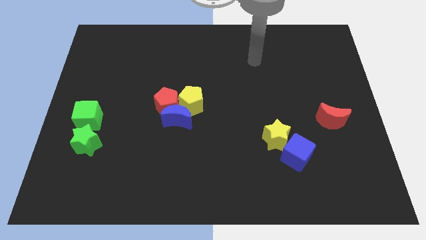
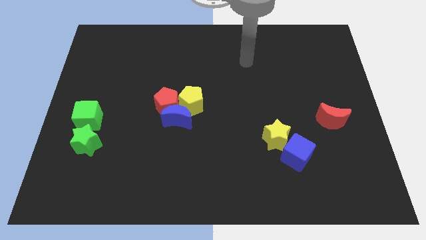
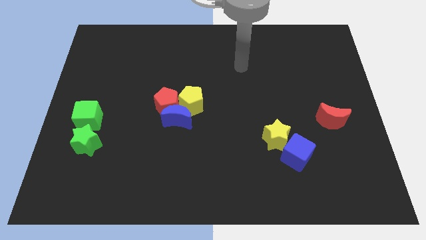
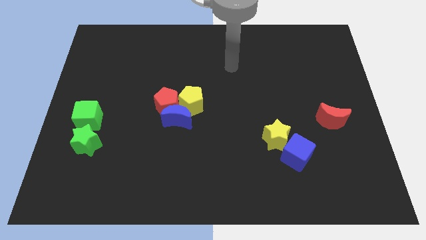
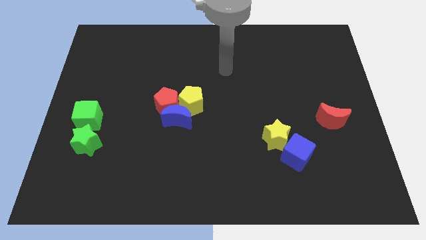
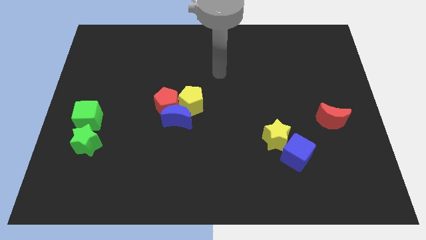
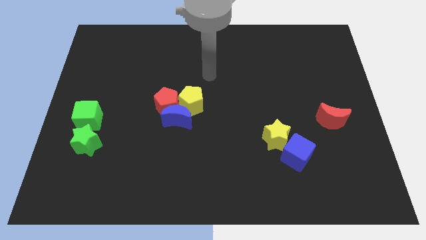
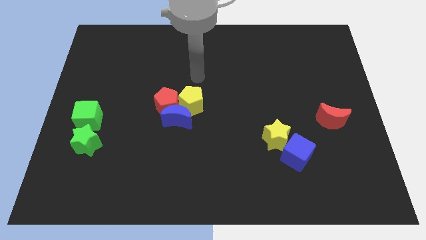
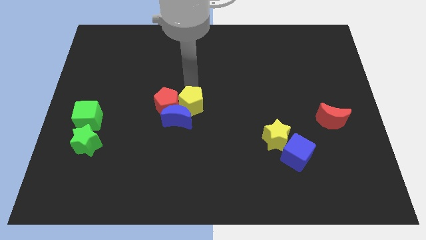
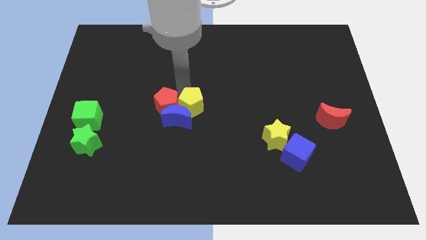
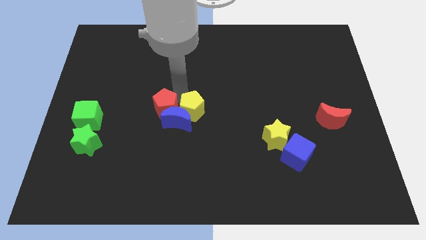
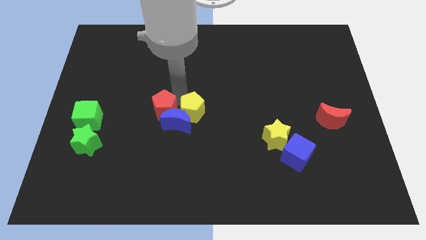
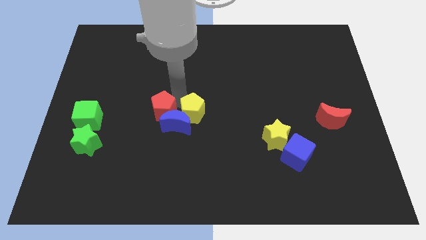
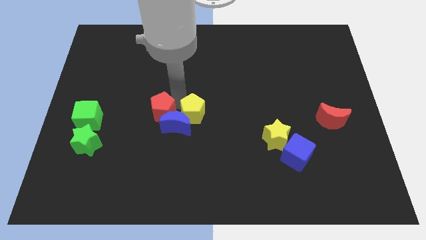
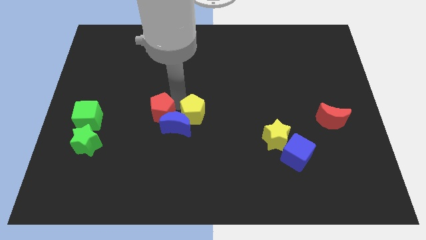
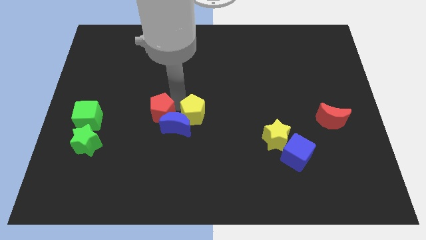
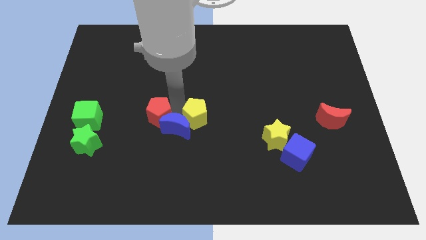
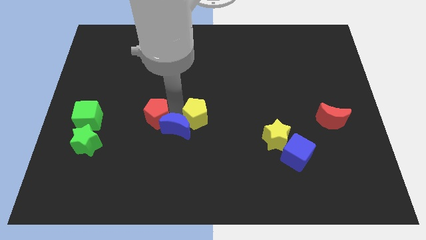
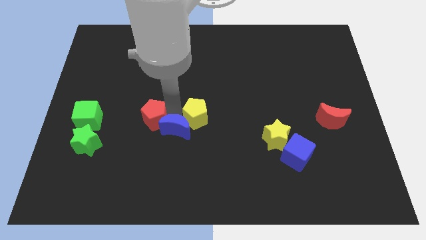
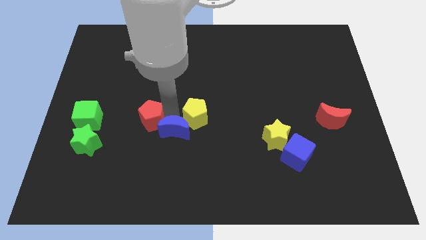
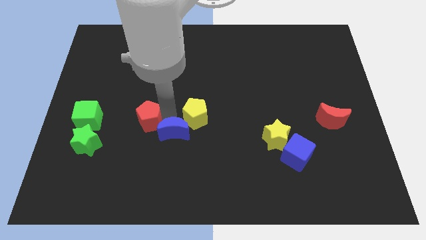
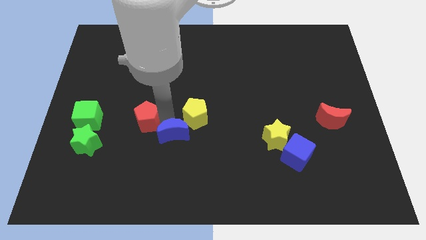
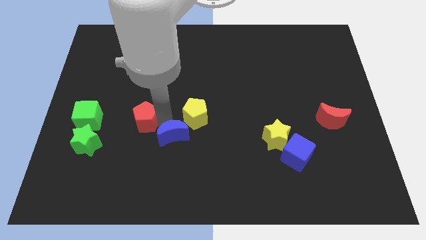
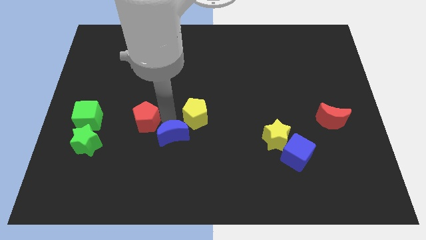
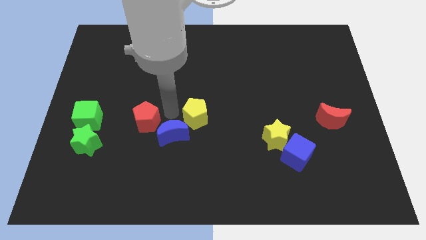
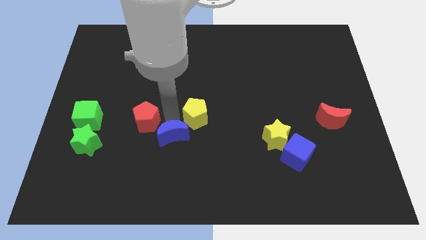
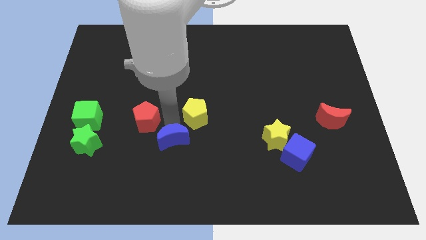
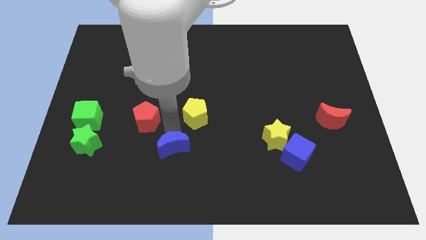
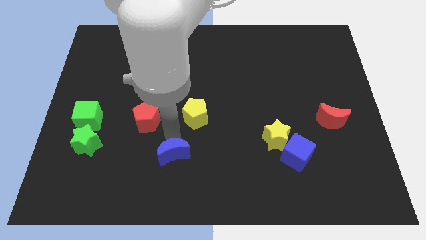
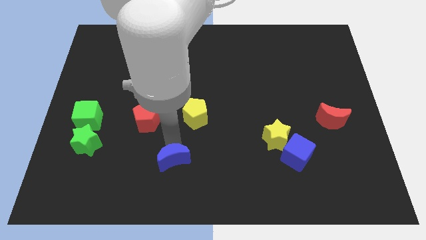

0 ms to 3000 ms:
separate the blue moon from the red pentagon and yellow pentagon

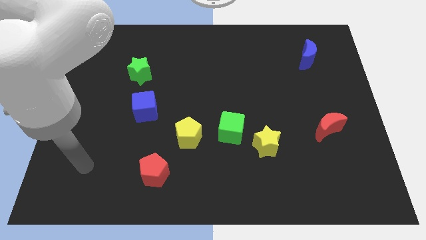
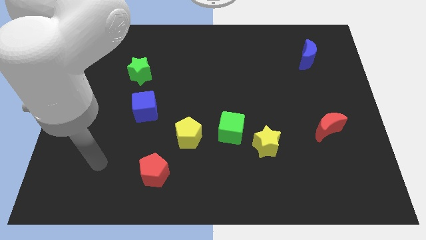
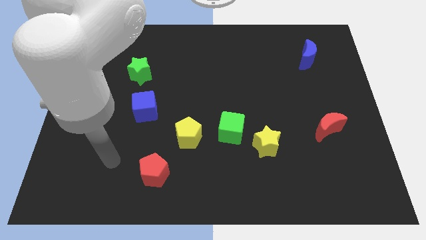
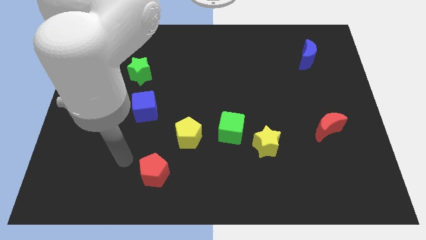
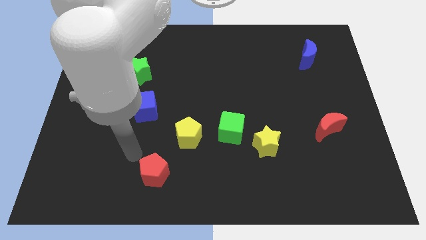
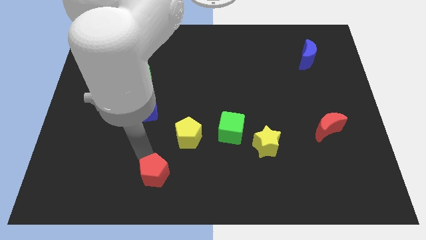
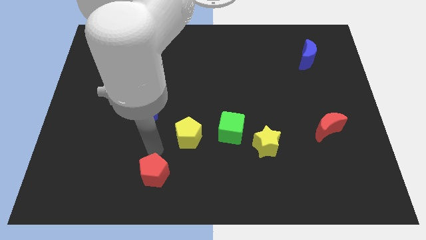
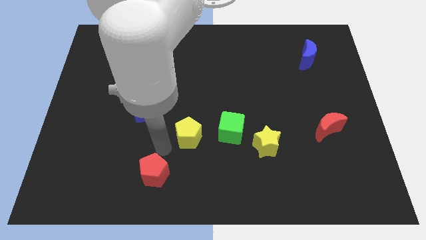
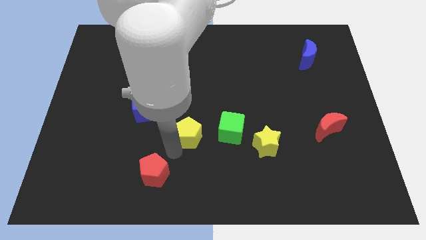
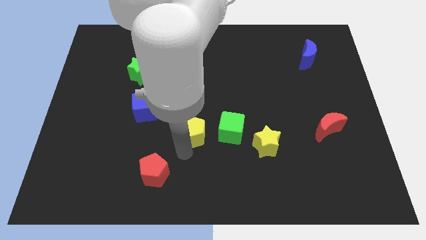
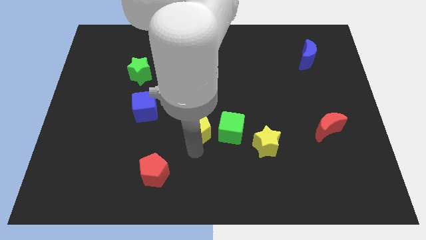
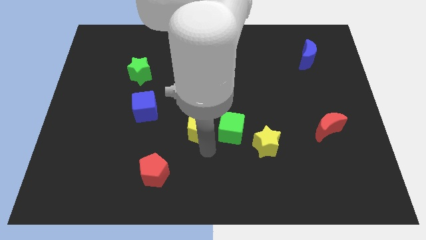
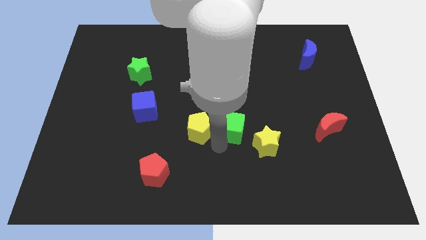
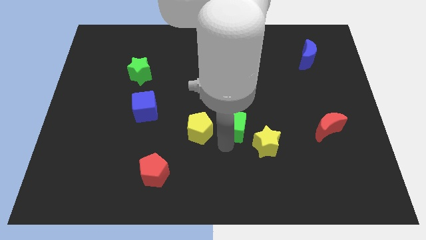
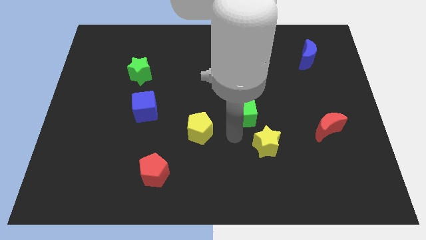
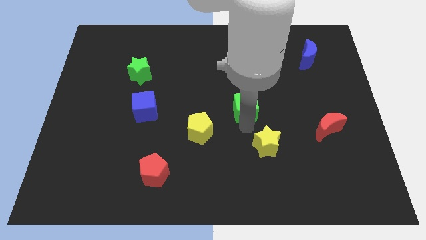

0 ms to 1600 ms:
pull the yellow star apart from the green cube

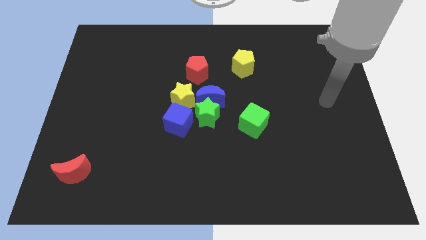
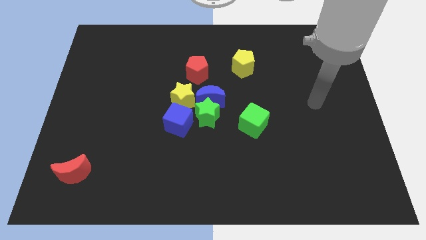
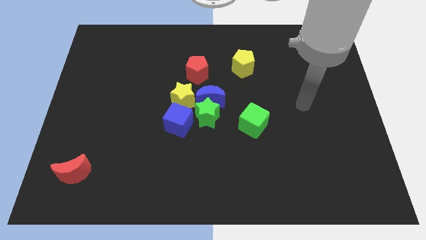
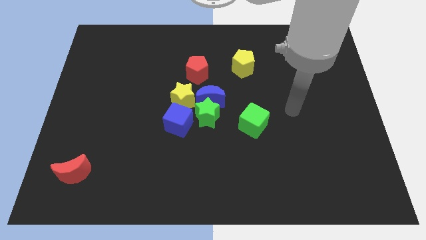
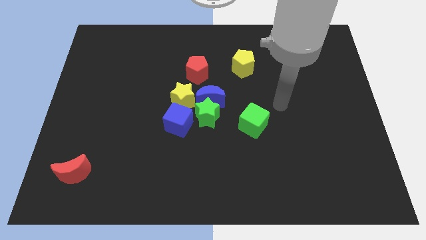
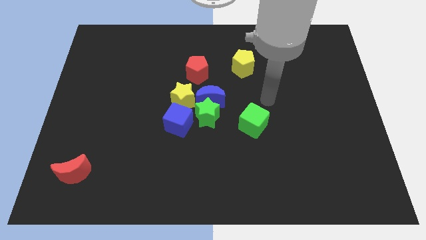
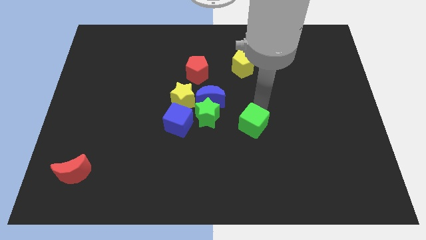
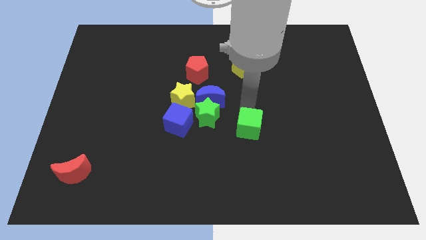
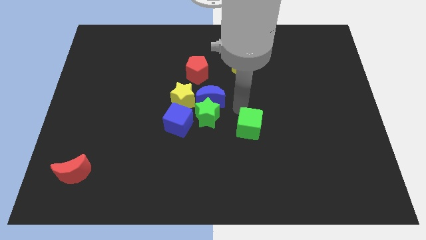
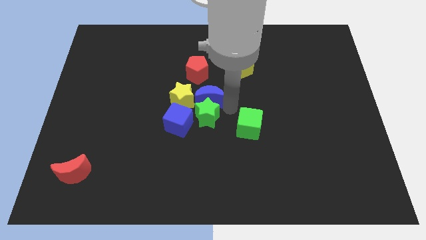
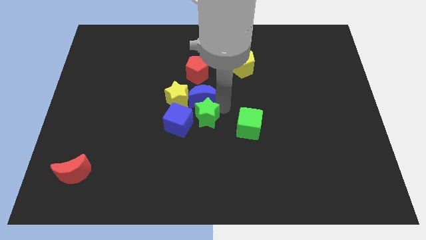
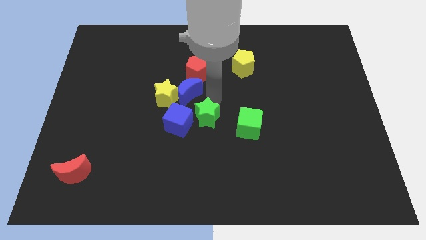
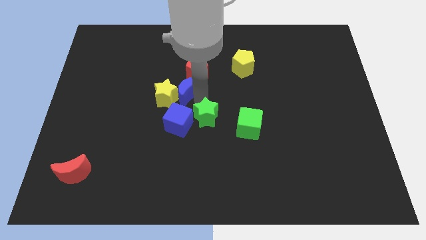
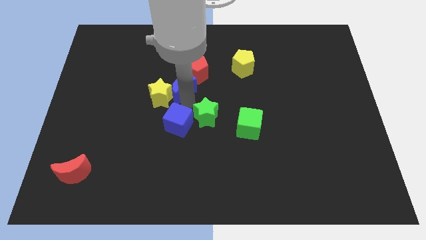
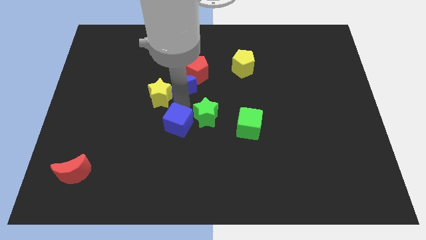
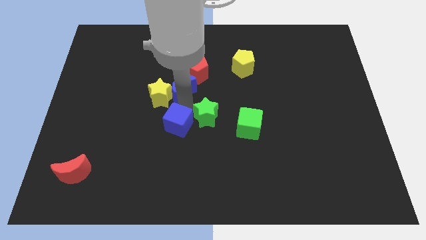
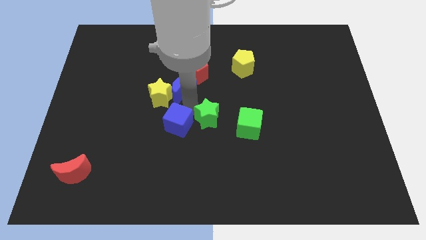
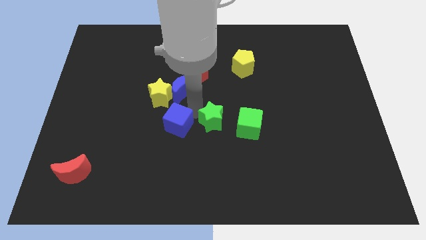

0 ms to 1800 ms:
separate the green star from the blue moon, blue cube, and yellow star

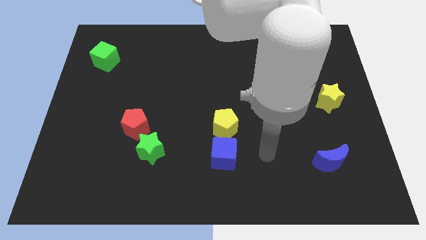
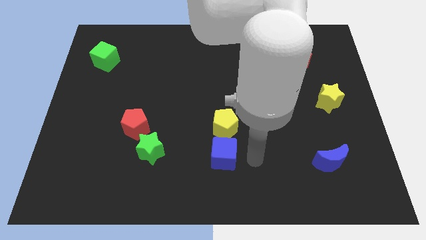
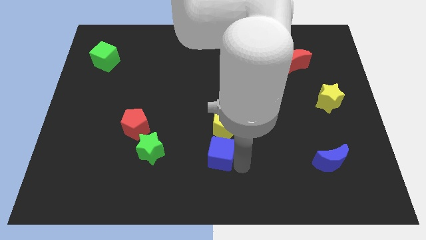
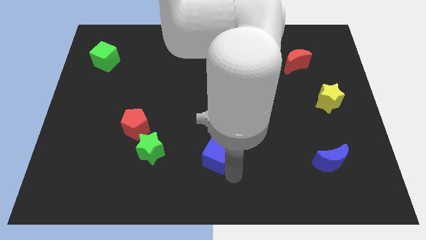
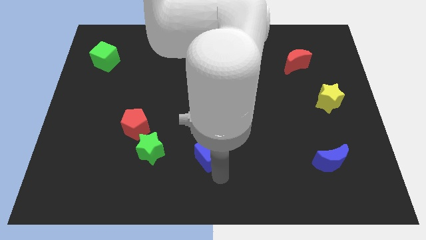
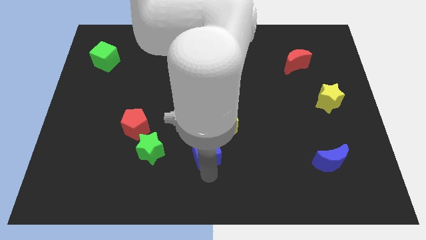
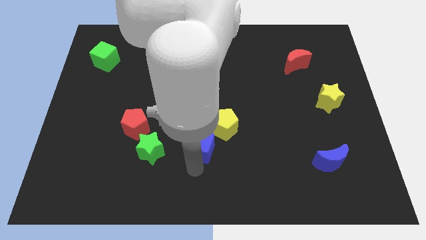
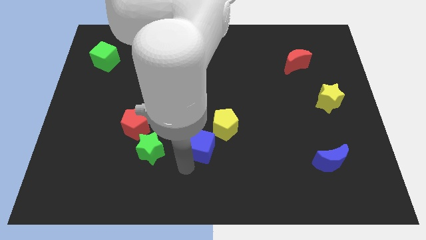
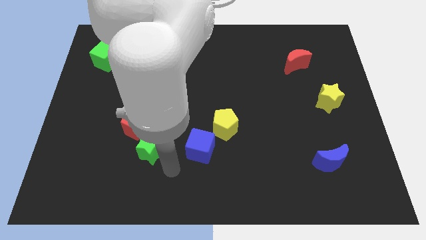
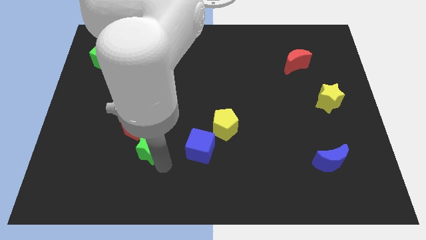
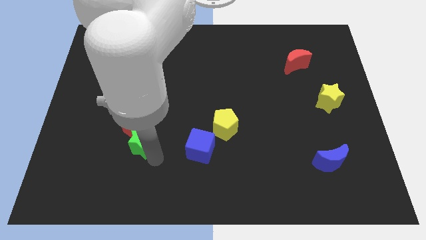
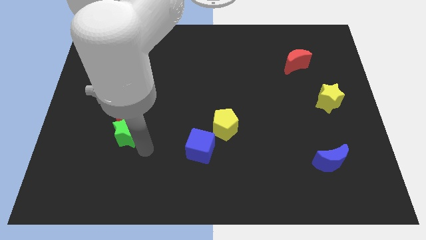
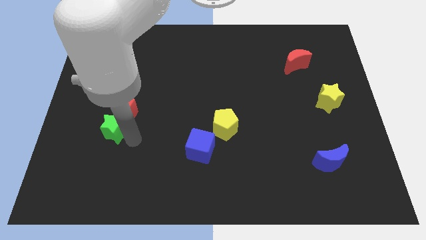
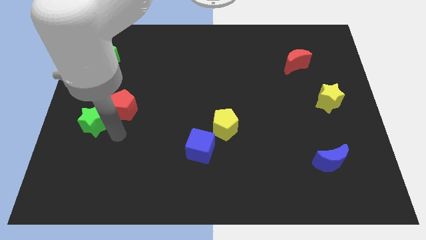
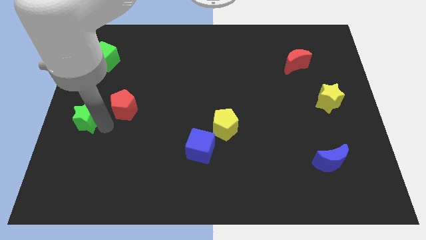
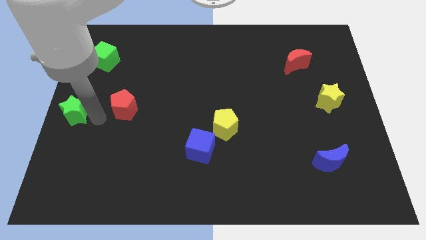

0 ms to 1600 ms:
pull the red pentagon apart from the green star

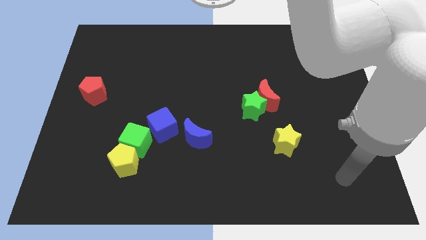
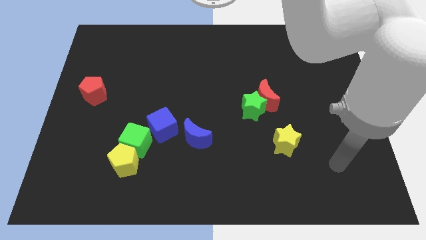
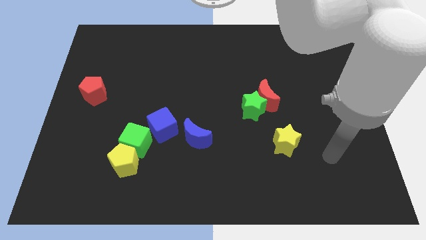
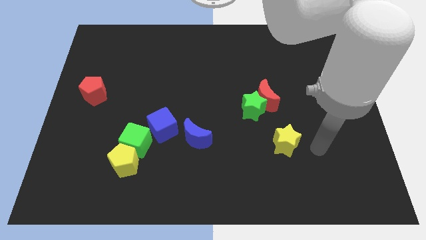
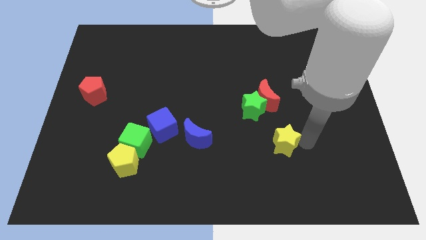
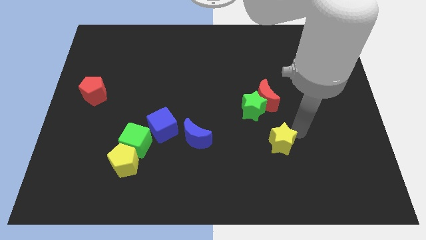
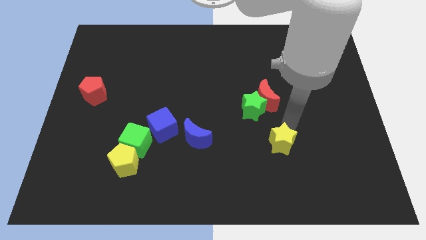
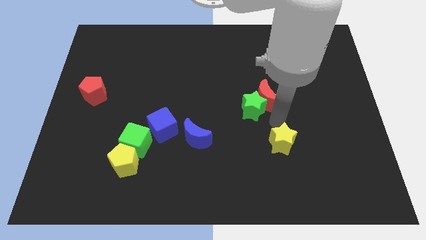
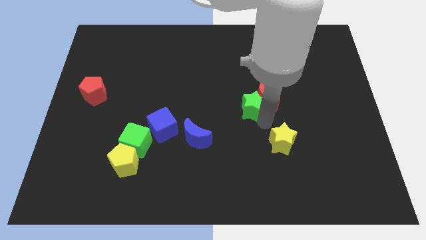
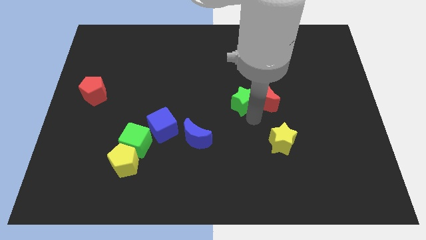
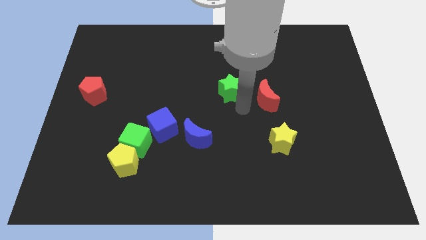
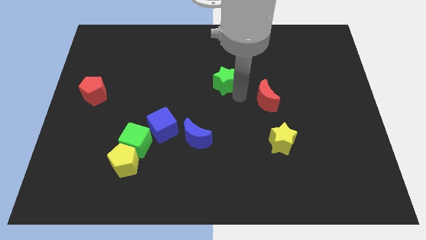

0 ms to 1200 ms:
pull the red moon apart from the green star

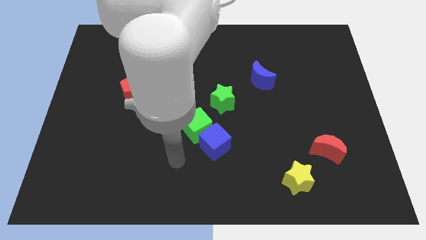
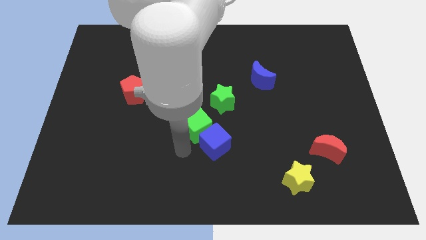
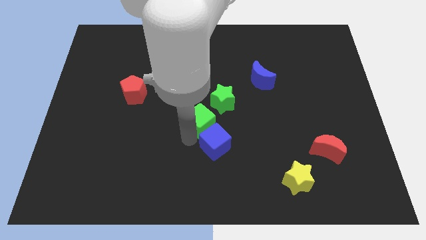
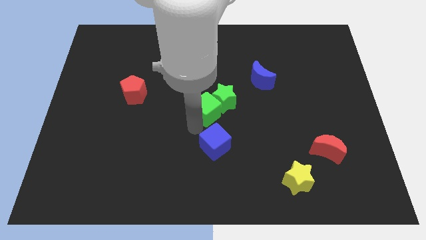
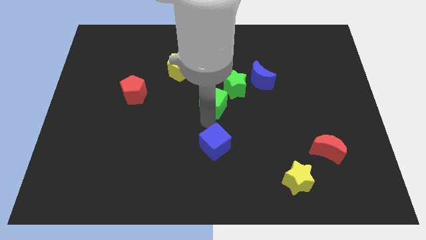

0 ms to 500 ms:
move the blue cube away from the green cube
